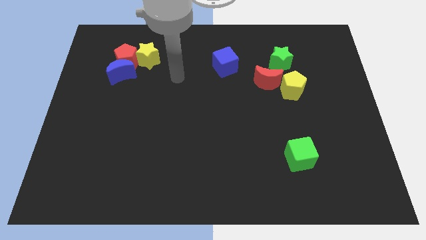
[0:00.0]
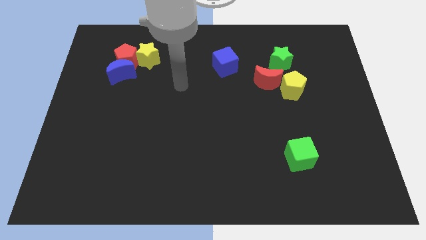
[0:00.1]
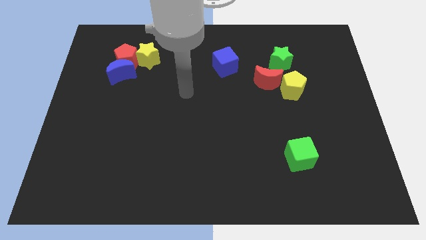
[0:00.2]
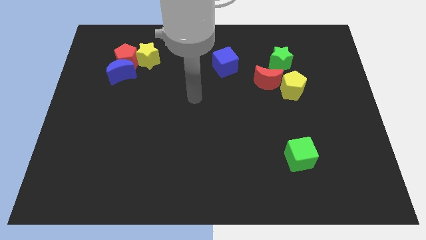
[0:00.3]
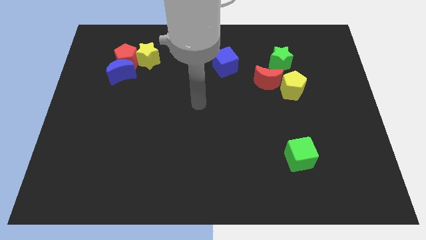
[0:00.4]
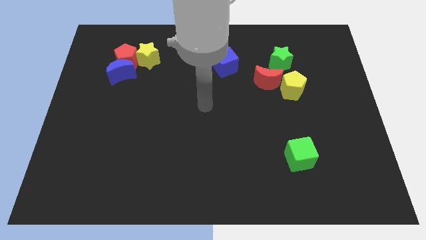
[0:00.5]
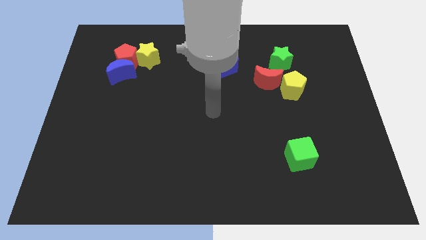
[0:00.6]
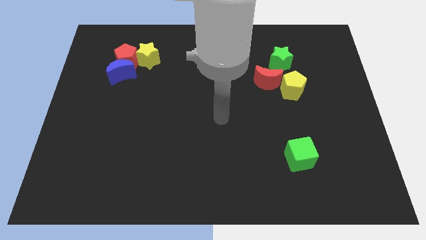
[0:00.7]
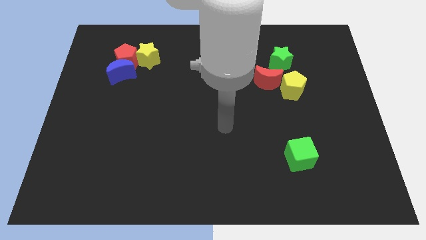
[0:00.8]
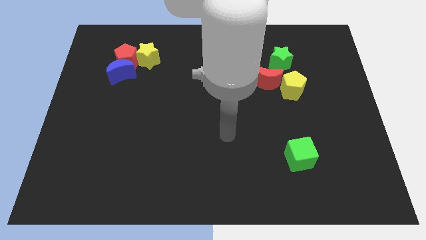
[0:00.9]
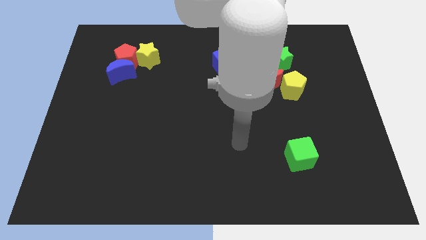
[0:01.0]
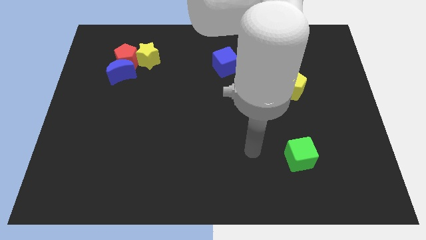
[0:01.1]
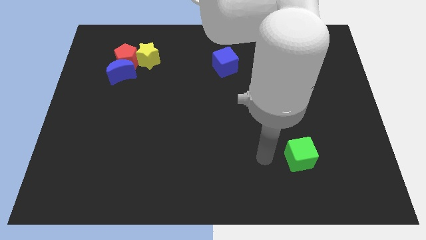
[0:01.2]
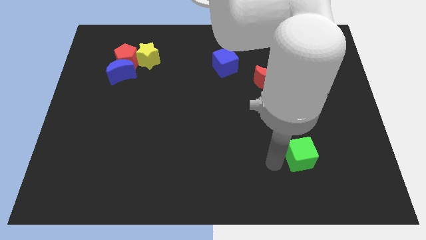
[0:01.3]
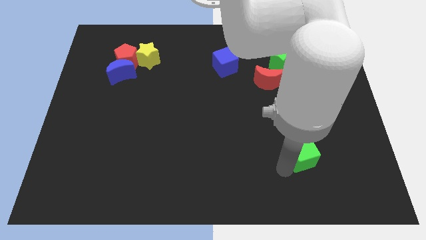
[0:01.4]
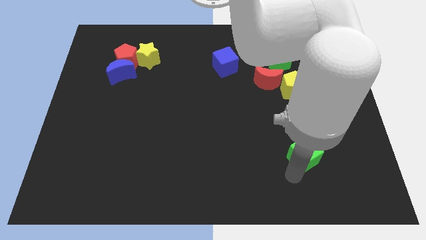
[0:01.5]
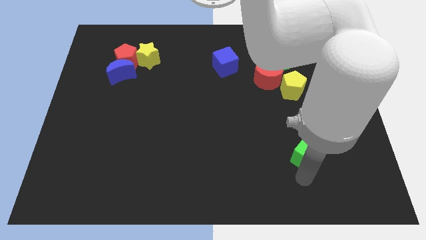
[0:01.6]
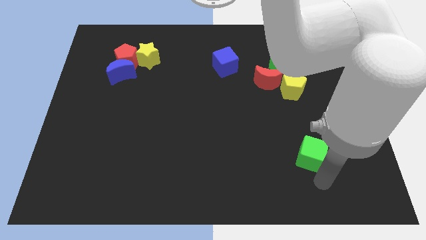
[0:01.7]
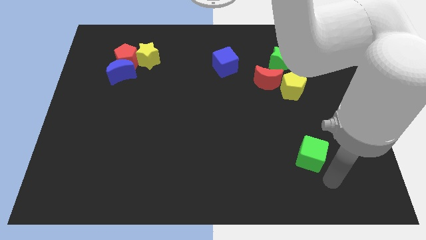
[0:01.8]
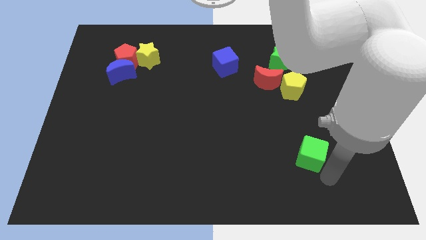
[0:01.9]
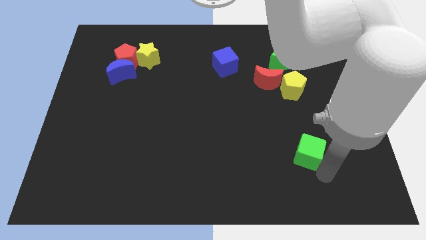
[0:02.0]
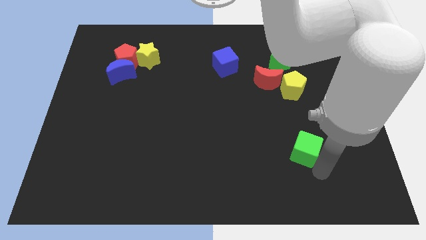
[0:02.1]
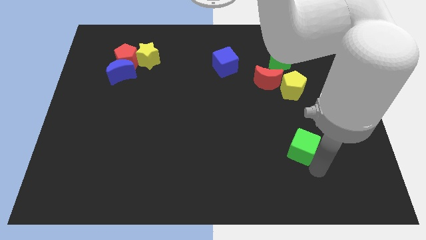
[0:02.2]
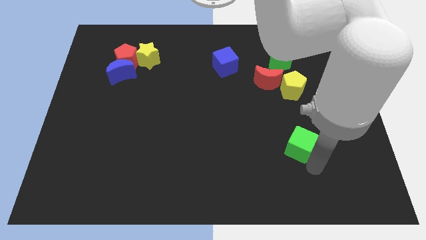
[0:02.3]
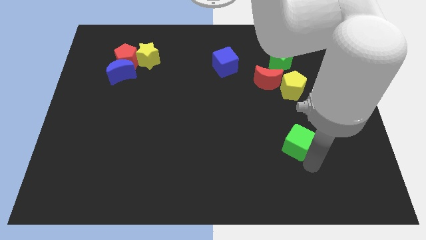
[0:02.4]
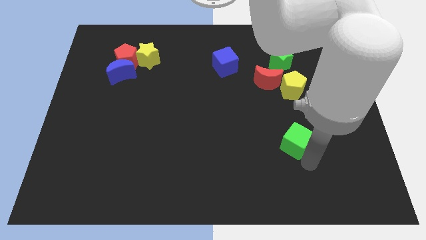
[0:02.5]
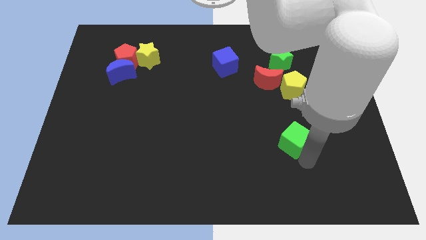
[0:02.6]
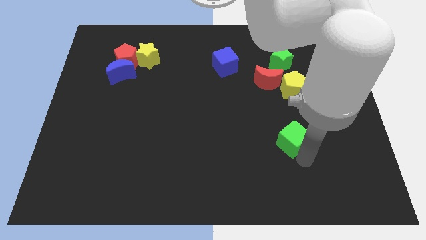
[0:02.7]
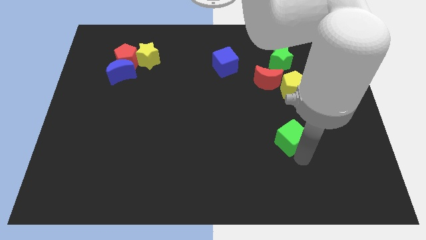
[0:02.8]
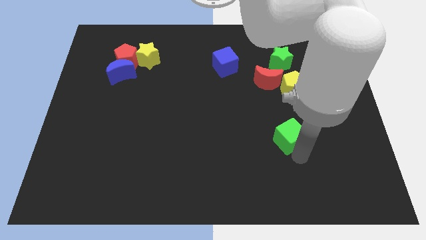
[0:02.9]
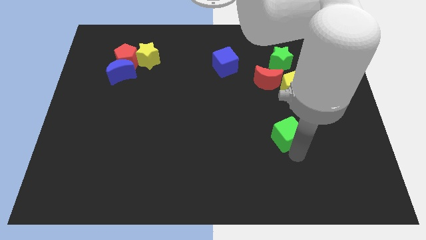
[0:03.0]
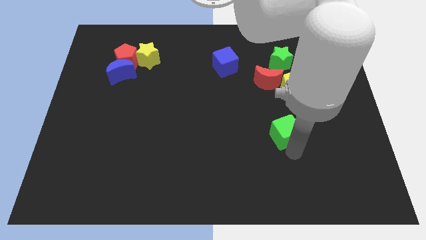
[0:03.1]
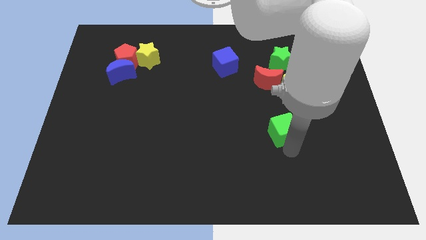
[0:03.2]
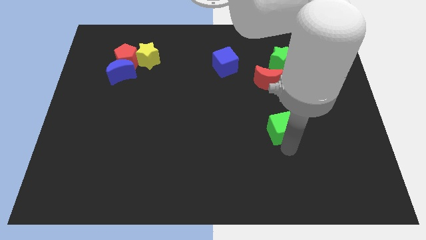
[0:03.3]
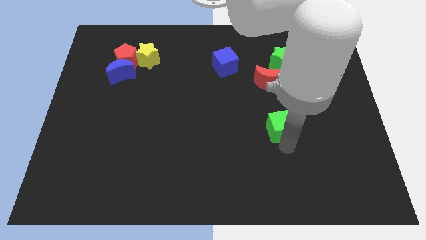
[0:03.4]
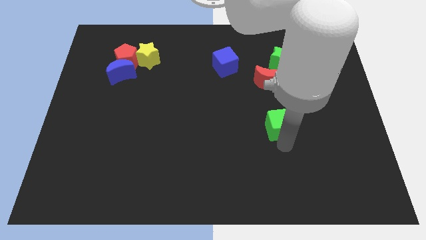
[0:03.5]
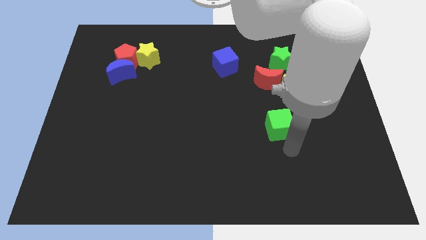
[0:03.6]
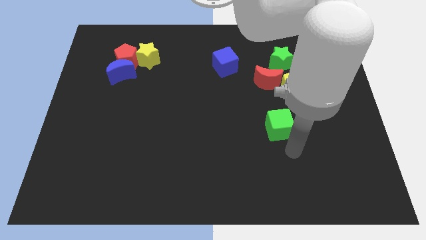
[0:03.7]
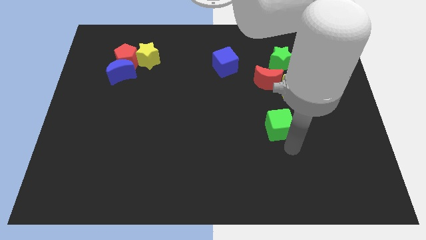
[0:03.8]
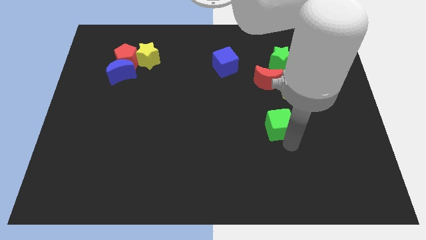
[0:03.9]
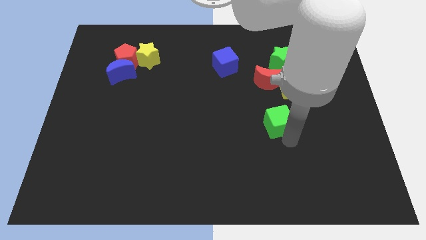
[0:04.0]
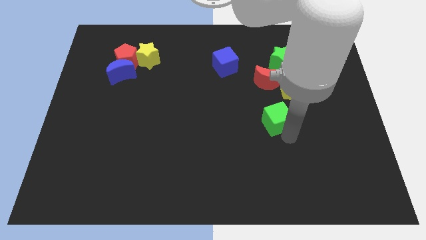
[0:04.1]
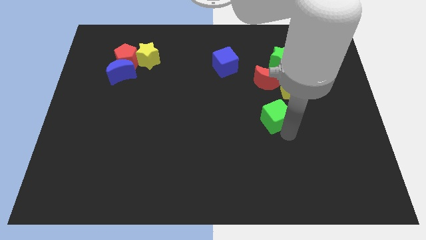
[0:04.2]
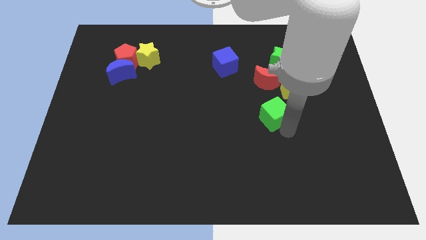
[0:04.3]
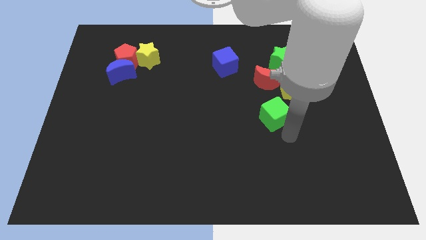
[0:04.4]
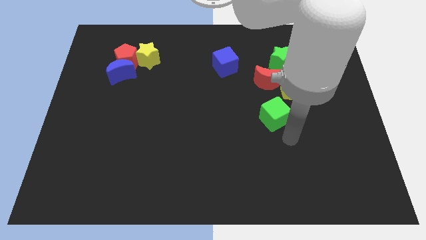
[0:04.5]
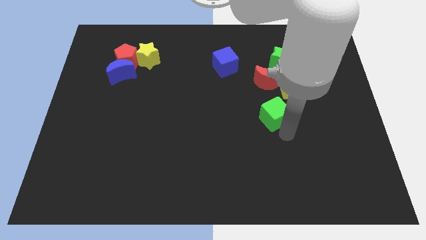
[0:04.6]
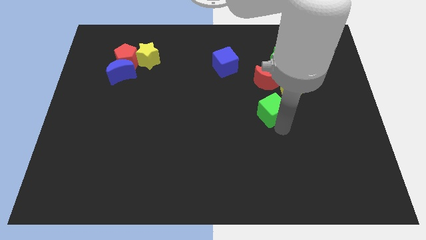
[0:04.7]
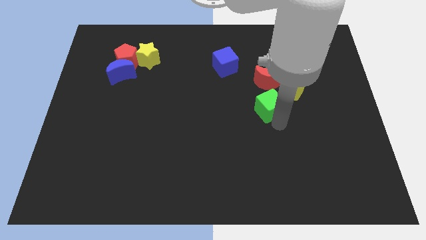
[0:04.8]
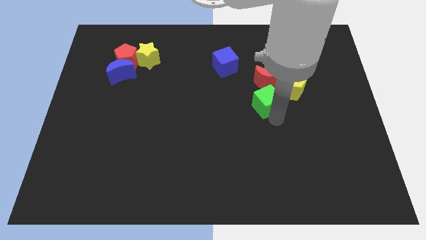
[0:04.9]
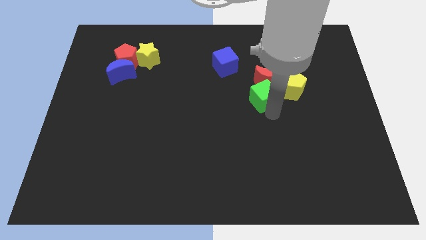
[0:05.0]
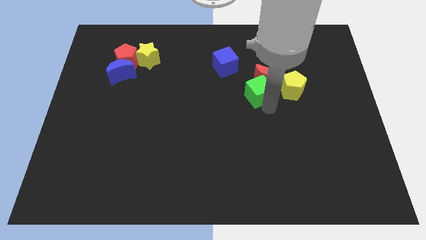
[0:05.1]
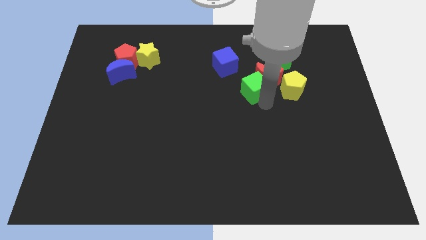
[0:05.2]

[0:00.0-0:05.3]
push the green cube to the bottom left side of the green star

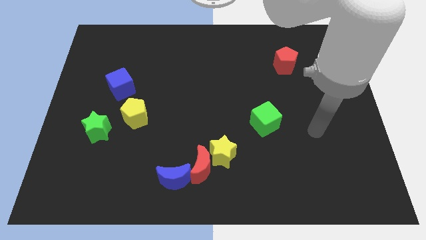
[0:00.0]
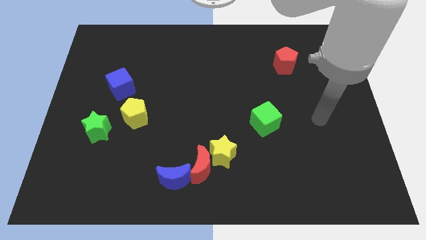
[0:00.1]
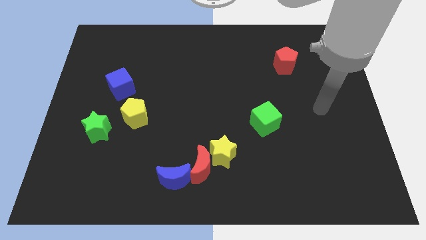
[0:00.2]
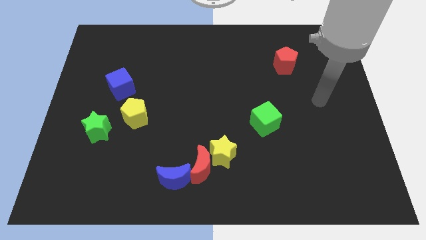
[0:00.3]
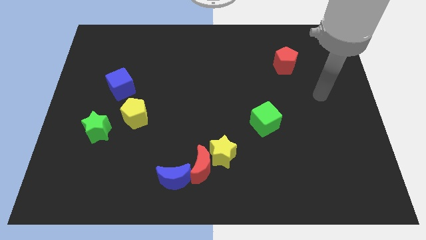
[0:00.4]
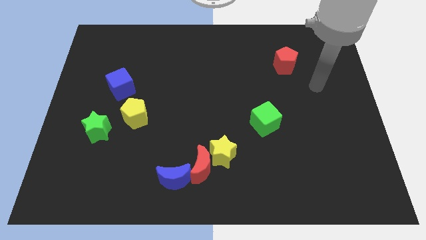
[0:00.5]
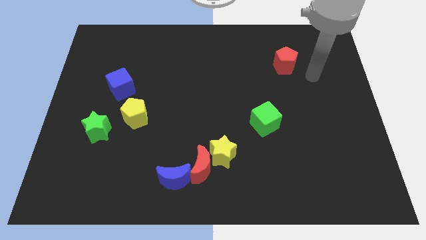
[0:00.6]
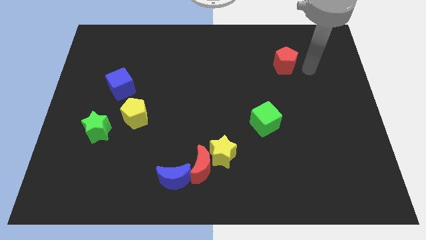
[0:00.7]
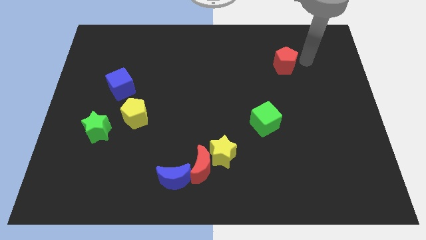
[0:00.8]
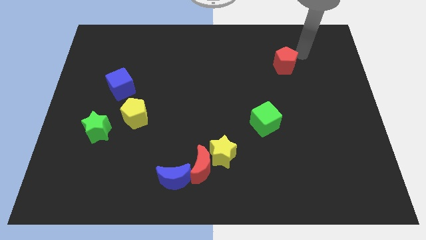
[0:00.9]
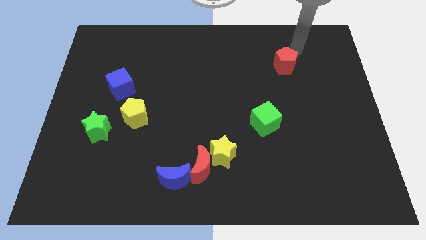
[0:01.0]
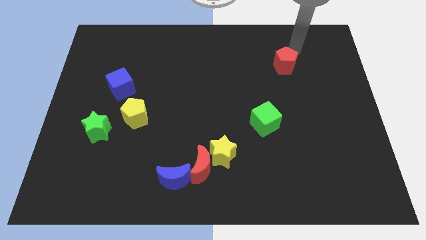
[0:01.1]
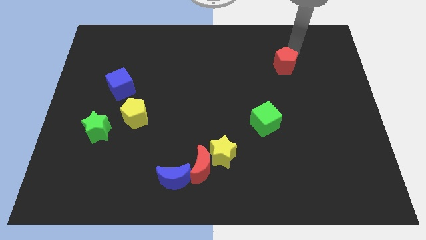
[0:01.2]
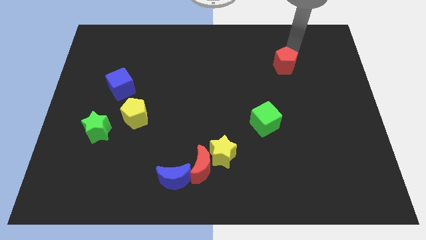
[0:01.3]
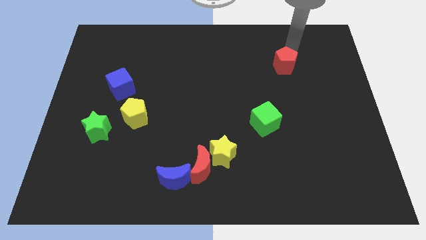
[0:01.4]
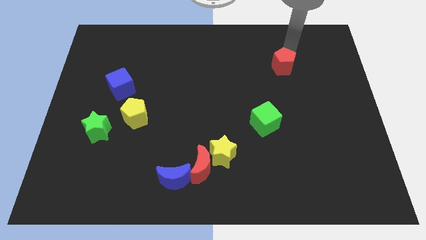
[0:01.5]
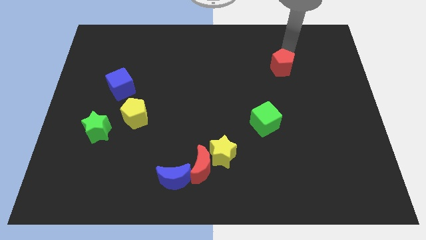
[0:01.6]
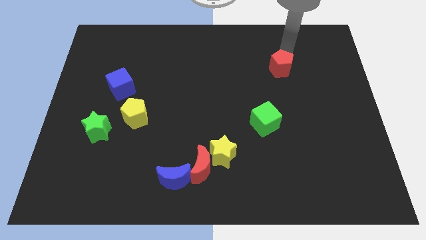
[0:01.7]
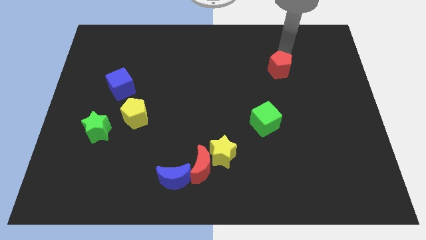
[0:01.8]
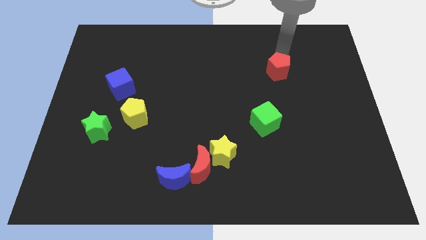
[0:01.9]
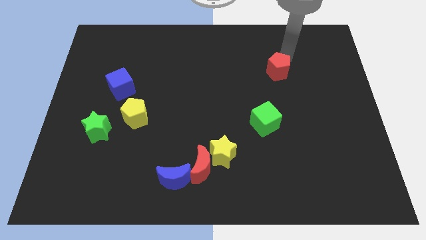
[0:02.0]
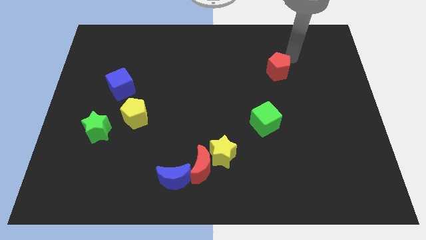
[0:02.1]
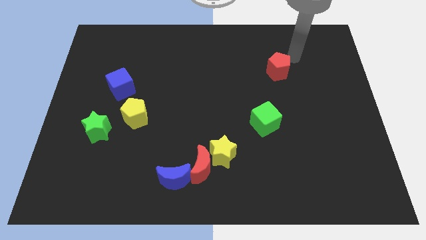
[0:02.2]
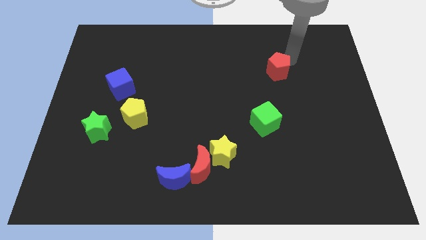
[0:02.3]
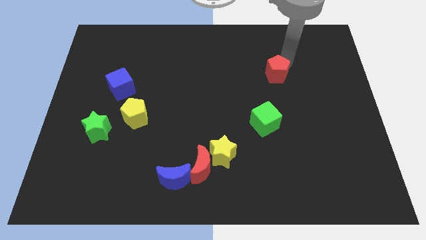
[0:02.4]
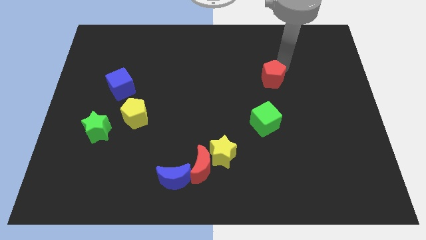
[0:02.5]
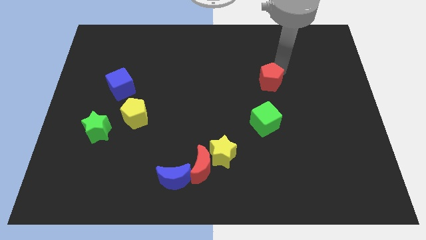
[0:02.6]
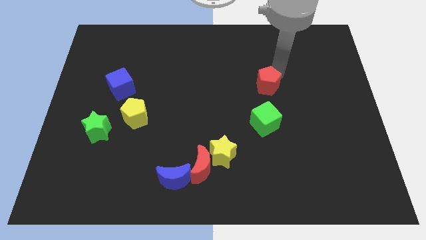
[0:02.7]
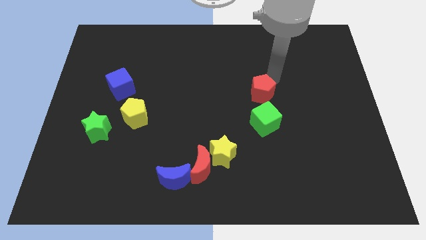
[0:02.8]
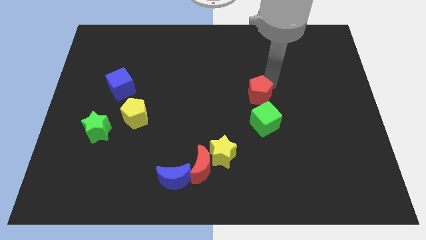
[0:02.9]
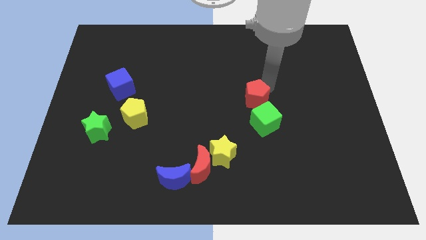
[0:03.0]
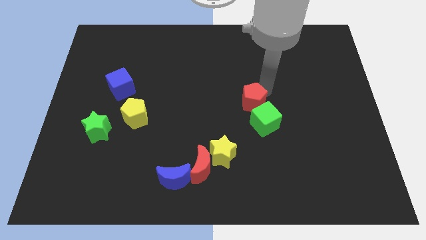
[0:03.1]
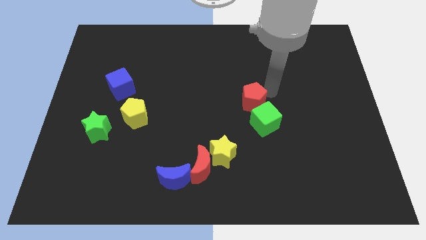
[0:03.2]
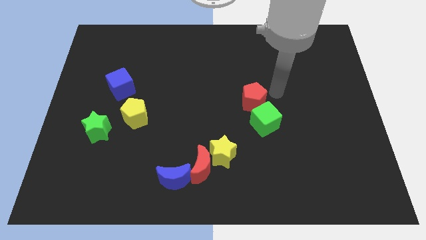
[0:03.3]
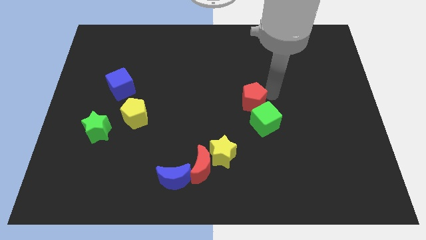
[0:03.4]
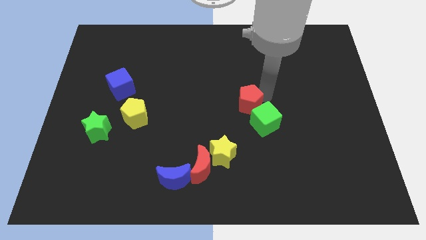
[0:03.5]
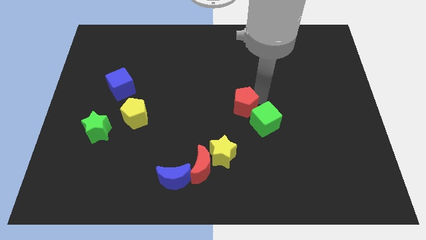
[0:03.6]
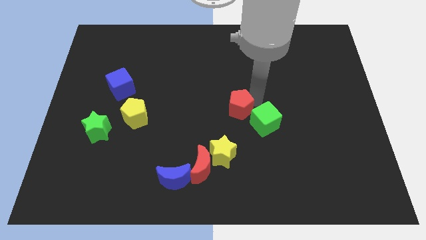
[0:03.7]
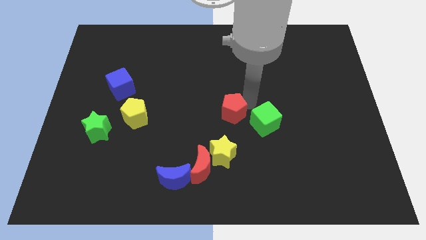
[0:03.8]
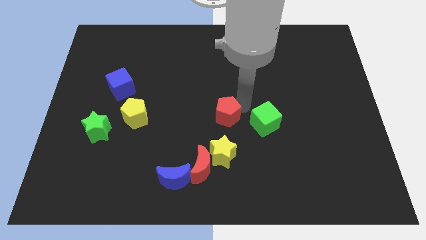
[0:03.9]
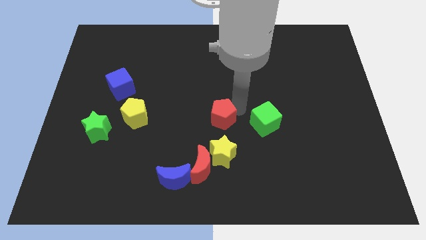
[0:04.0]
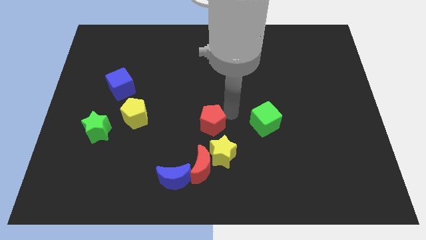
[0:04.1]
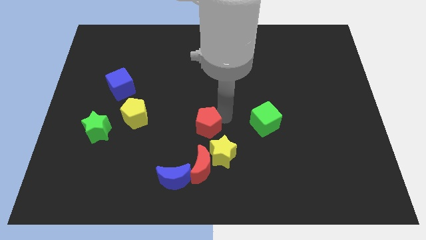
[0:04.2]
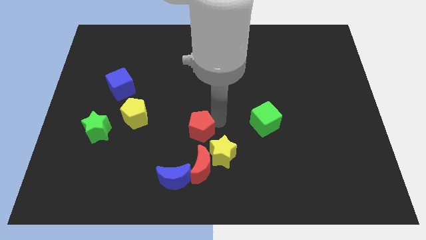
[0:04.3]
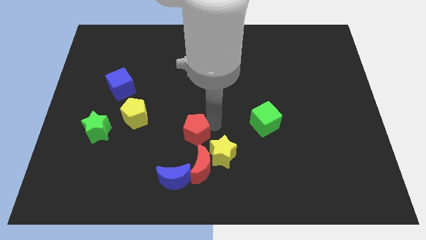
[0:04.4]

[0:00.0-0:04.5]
push the red pentagon to the top of the blue moon
